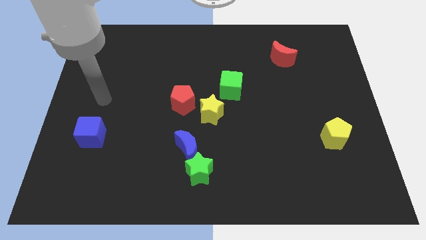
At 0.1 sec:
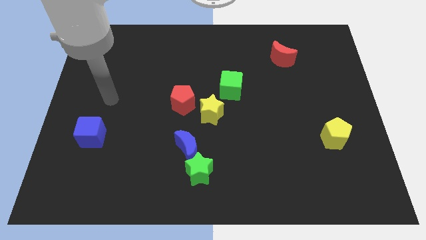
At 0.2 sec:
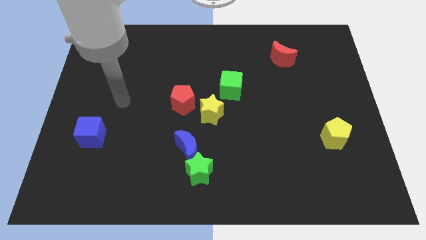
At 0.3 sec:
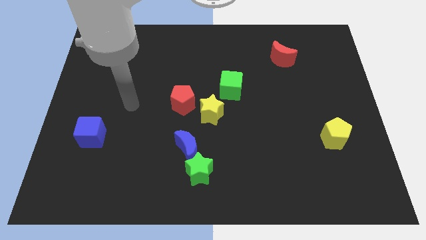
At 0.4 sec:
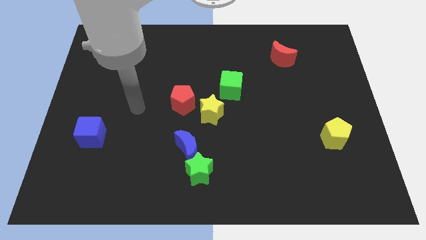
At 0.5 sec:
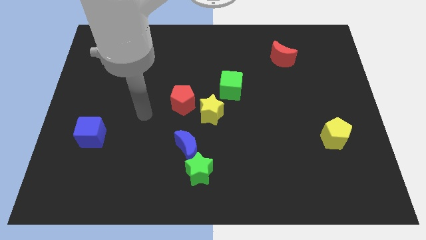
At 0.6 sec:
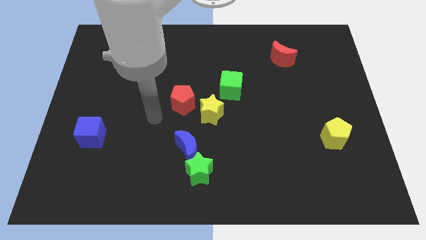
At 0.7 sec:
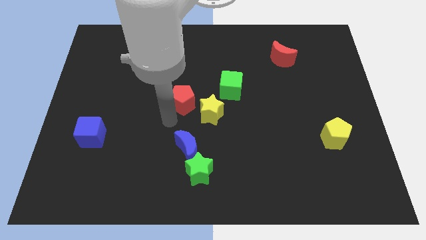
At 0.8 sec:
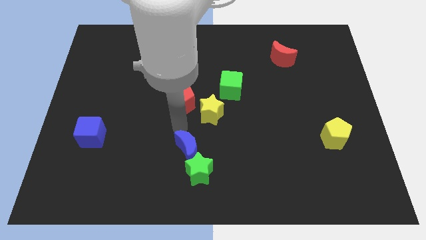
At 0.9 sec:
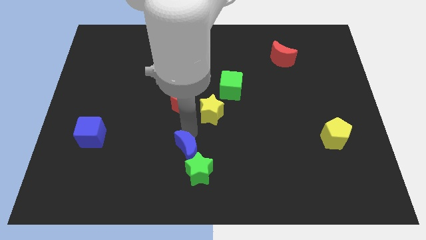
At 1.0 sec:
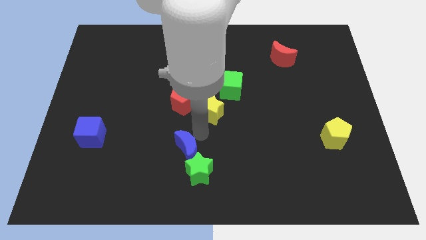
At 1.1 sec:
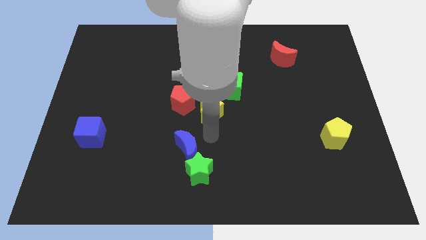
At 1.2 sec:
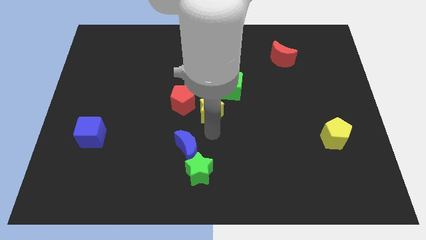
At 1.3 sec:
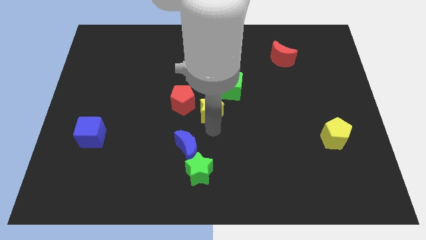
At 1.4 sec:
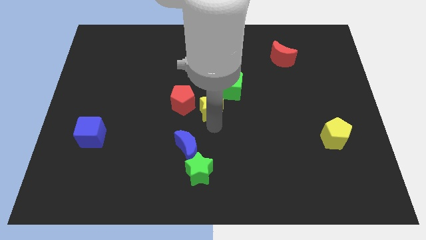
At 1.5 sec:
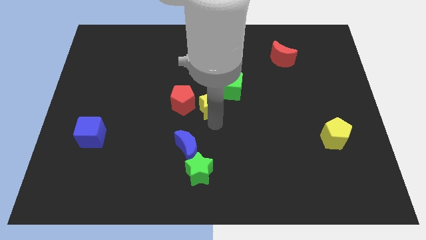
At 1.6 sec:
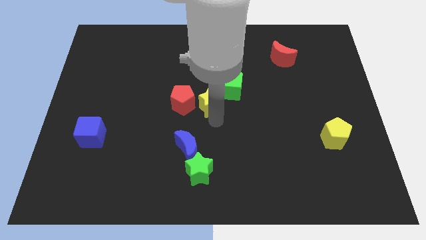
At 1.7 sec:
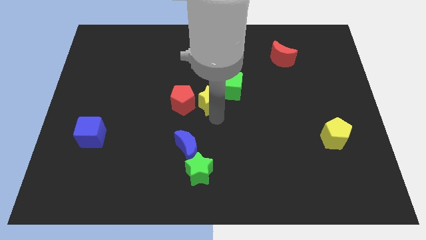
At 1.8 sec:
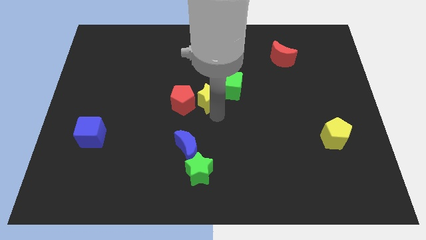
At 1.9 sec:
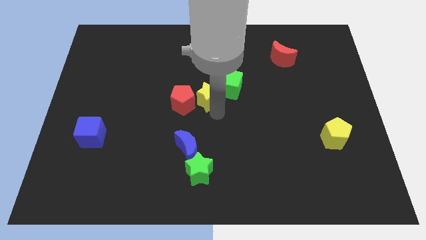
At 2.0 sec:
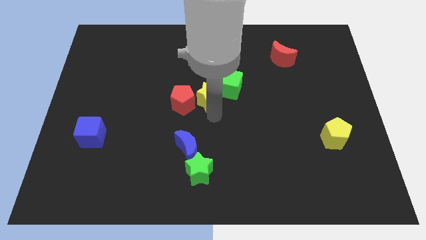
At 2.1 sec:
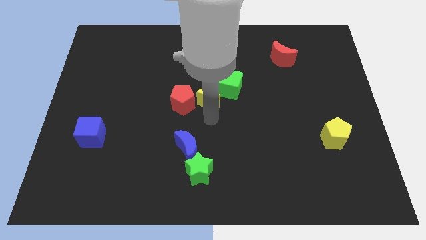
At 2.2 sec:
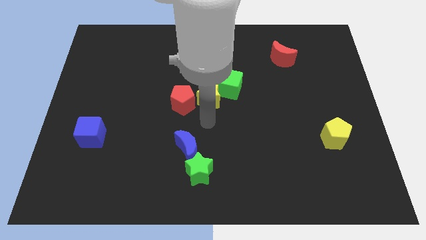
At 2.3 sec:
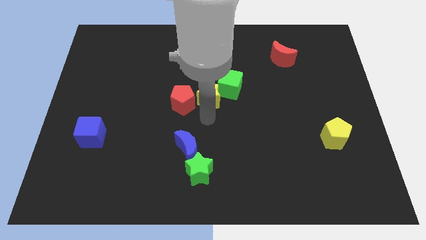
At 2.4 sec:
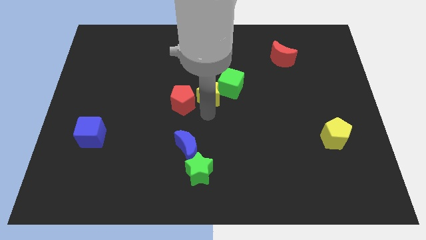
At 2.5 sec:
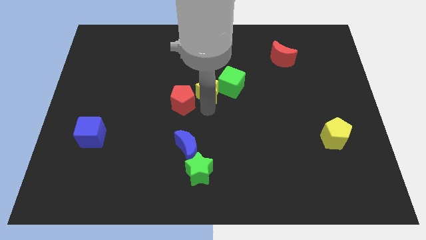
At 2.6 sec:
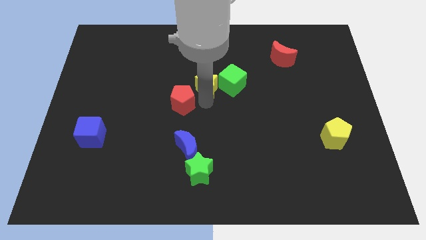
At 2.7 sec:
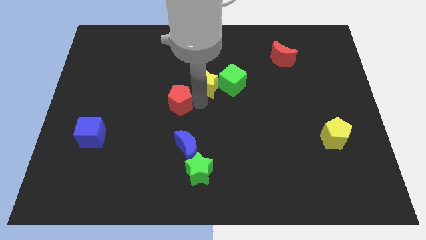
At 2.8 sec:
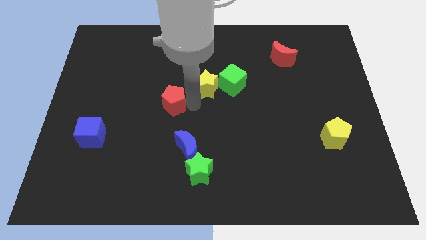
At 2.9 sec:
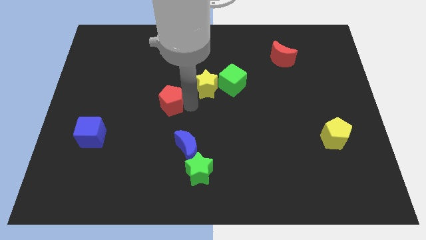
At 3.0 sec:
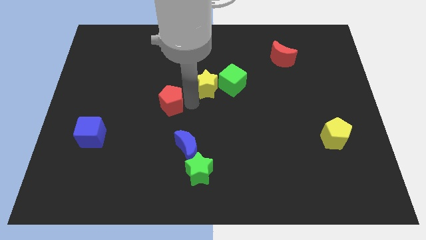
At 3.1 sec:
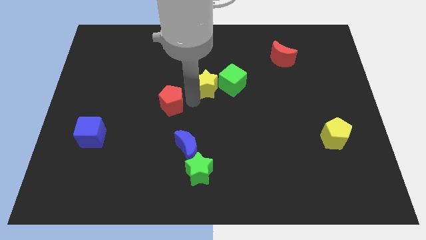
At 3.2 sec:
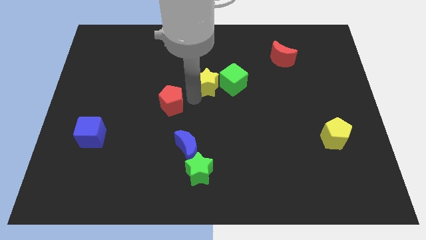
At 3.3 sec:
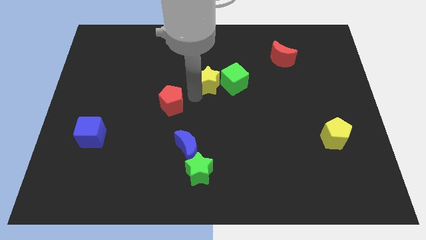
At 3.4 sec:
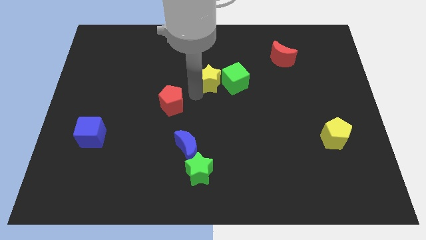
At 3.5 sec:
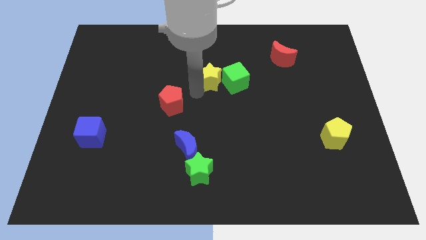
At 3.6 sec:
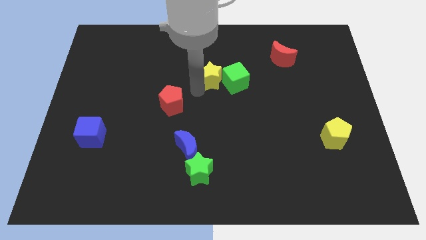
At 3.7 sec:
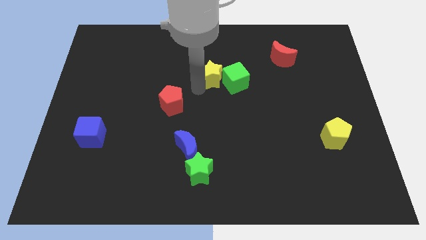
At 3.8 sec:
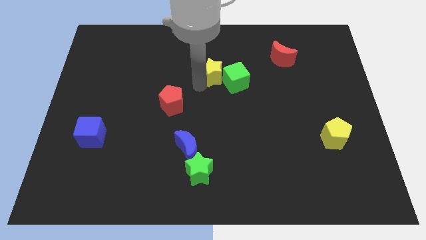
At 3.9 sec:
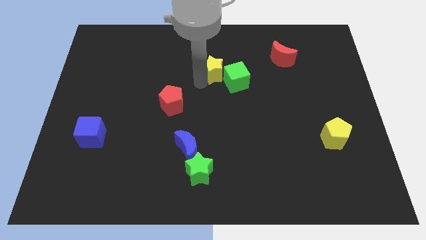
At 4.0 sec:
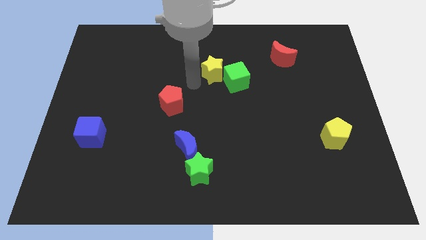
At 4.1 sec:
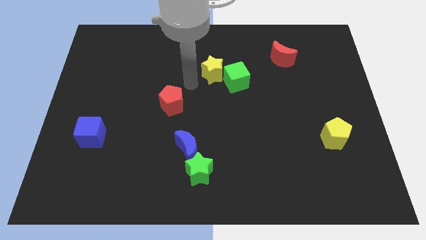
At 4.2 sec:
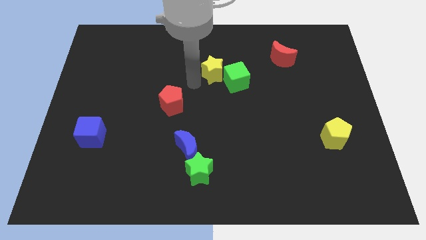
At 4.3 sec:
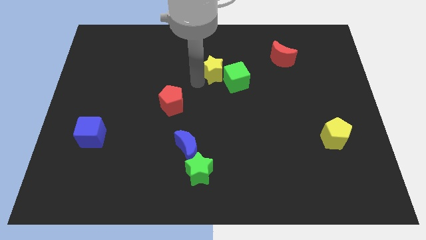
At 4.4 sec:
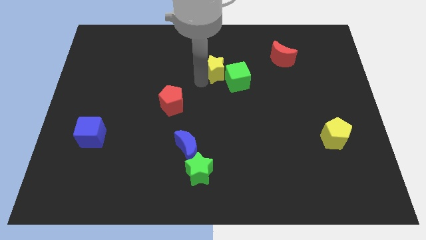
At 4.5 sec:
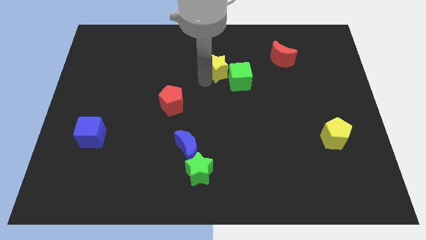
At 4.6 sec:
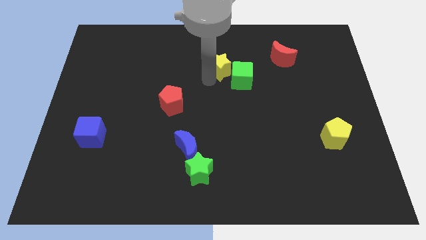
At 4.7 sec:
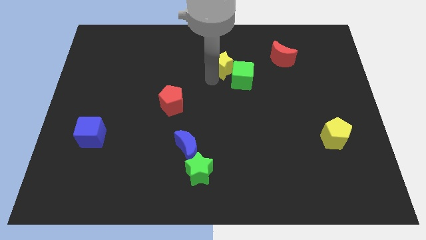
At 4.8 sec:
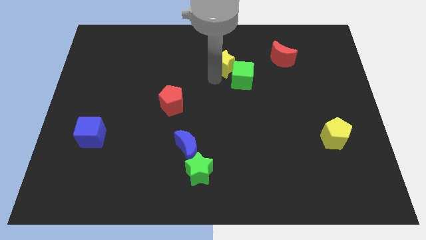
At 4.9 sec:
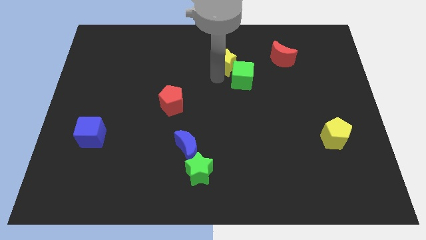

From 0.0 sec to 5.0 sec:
push the yellow star left of the red moon

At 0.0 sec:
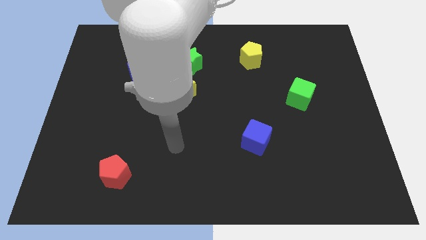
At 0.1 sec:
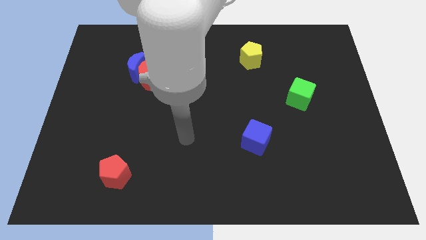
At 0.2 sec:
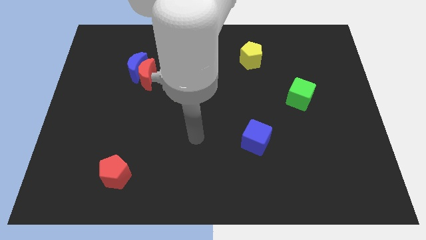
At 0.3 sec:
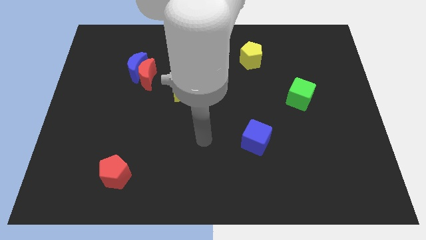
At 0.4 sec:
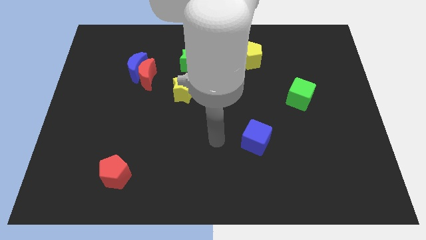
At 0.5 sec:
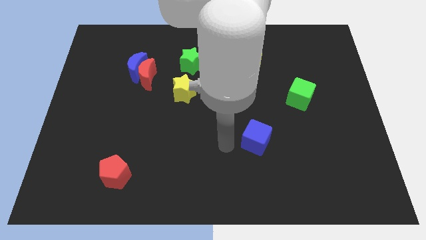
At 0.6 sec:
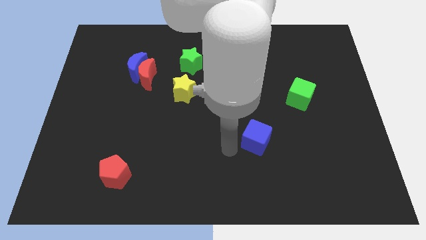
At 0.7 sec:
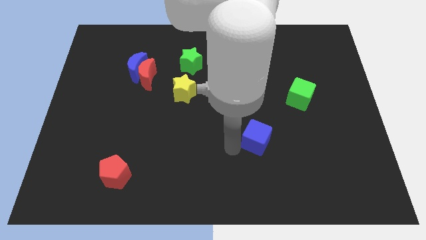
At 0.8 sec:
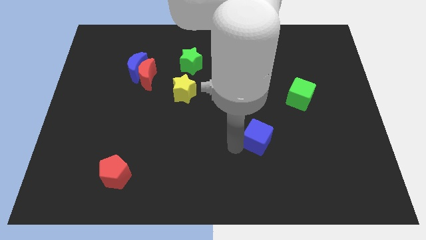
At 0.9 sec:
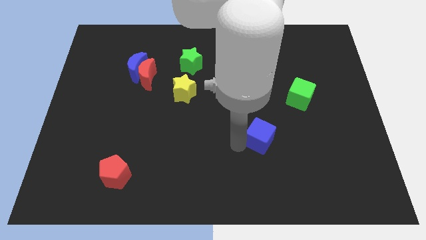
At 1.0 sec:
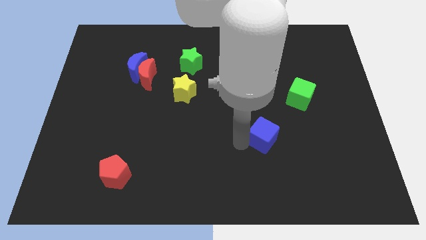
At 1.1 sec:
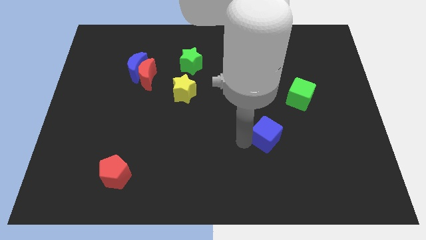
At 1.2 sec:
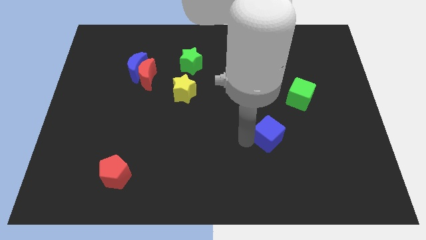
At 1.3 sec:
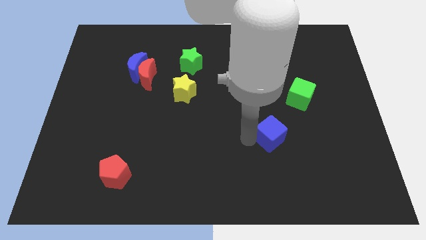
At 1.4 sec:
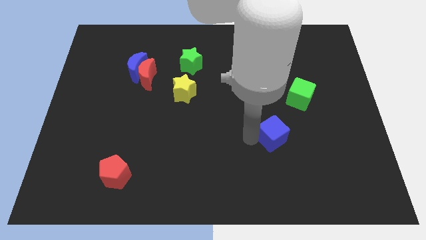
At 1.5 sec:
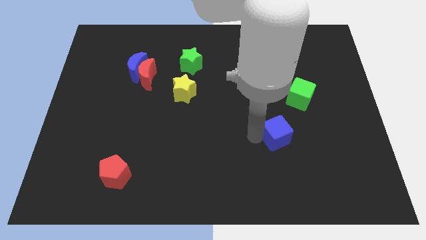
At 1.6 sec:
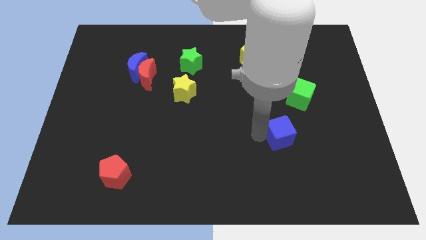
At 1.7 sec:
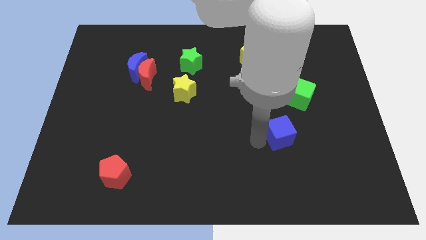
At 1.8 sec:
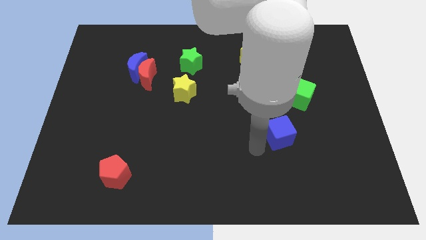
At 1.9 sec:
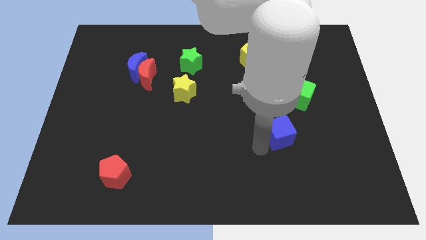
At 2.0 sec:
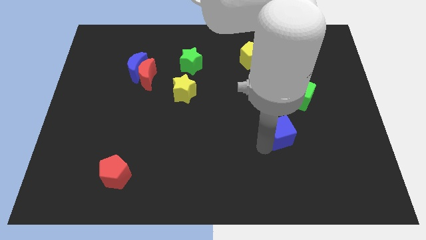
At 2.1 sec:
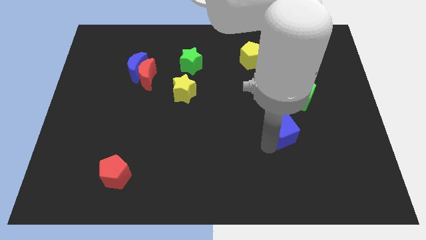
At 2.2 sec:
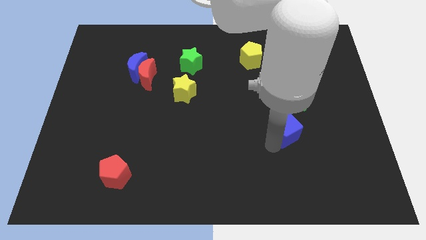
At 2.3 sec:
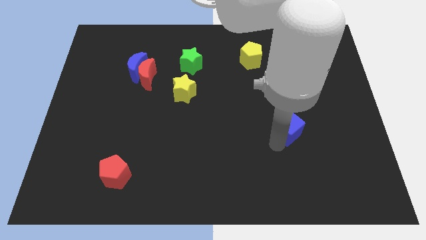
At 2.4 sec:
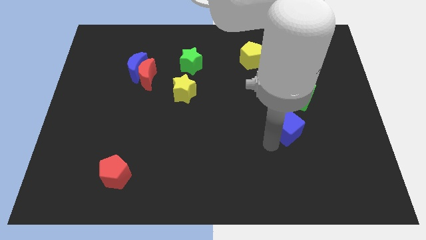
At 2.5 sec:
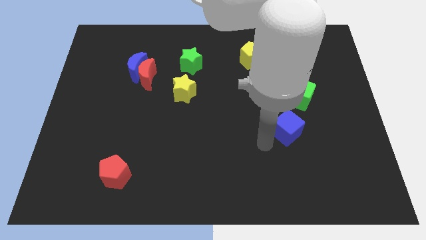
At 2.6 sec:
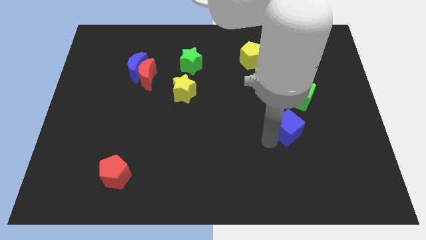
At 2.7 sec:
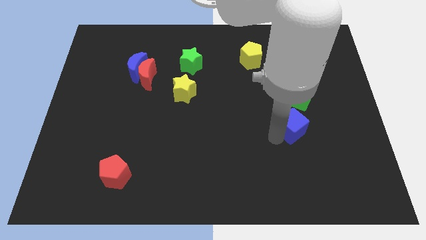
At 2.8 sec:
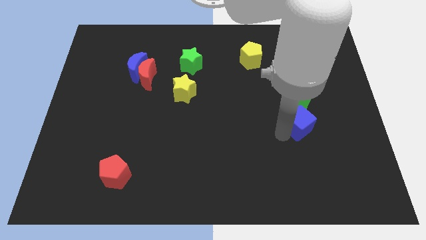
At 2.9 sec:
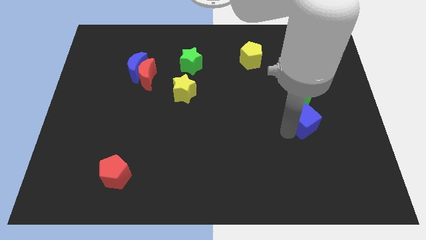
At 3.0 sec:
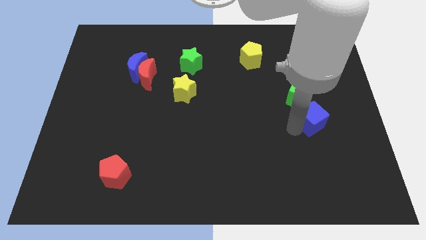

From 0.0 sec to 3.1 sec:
slide the blue cube to the bottom right of the green cube
